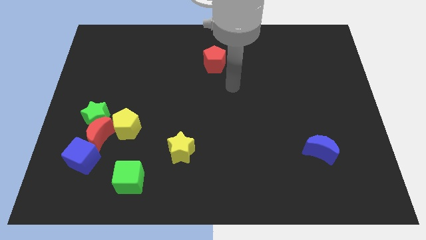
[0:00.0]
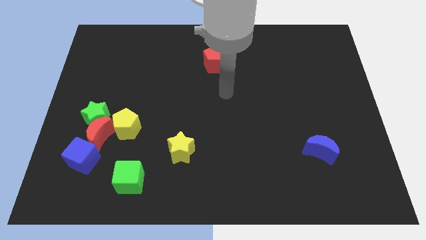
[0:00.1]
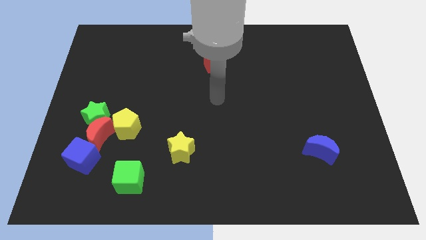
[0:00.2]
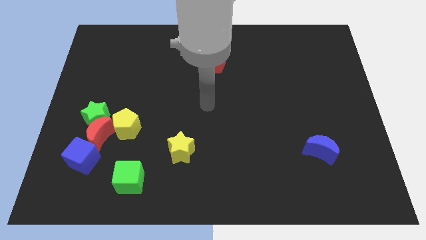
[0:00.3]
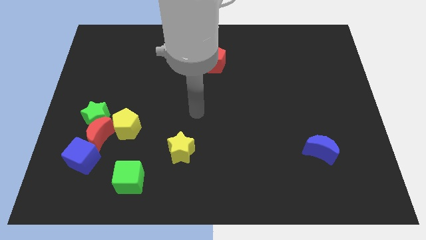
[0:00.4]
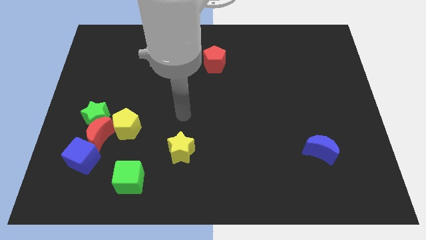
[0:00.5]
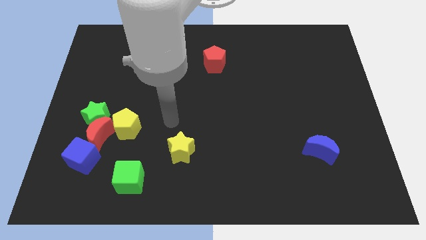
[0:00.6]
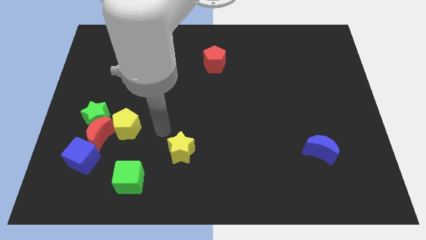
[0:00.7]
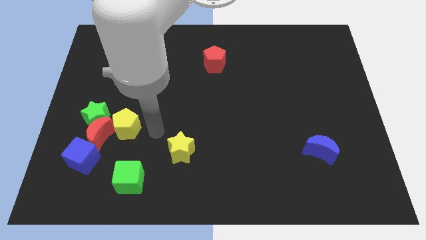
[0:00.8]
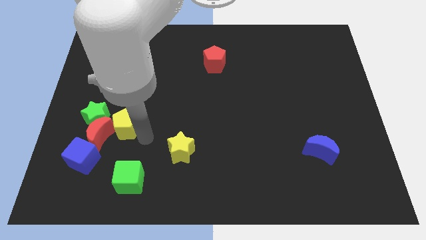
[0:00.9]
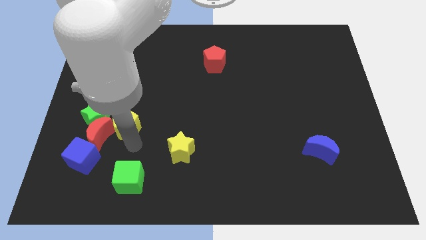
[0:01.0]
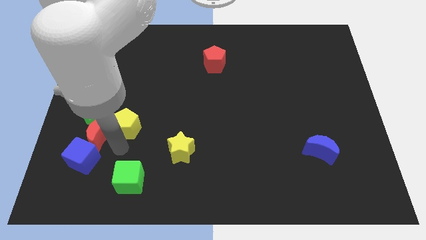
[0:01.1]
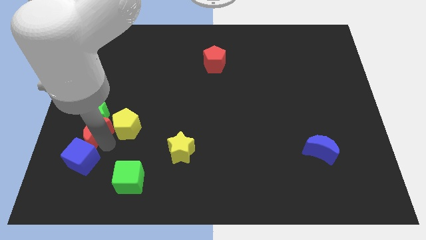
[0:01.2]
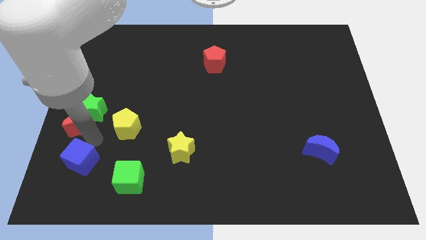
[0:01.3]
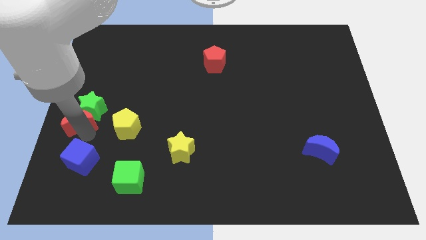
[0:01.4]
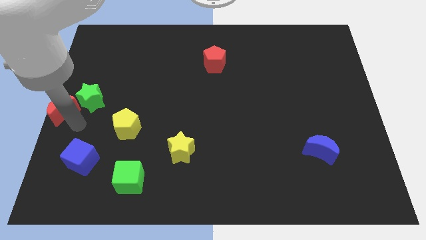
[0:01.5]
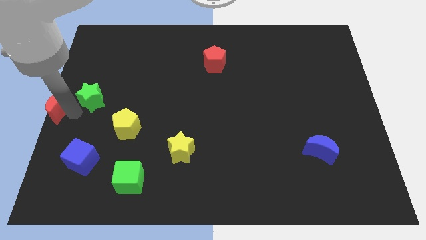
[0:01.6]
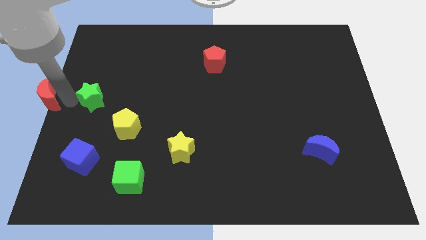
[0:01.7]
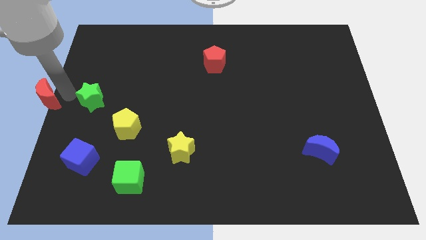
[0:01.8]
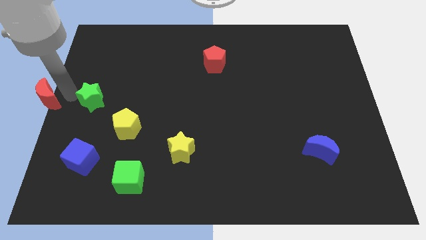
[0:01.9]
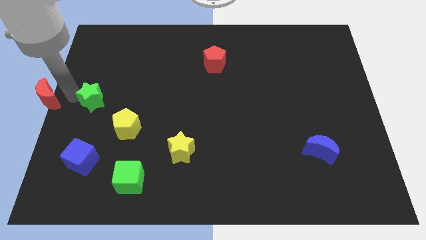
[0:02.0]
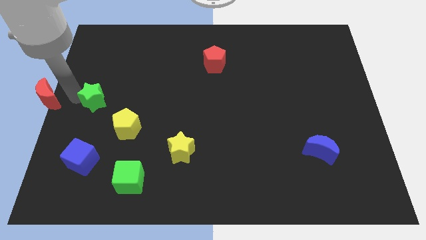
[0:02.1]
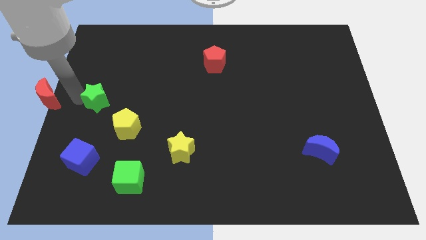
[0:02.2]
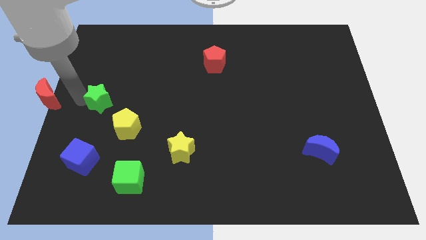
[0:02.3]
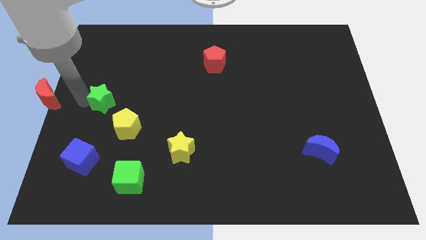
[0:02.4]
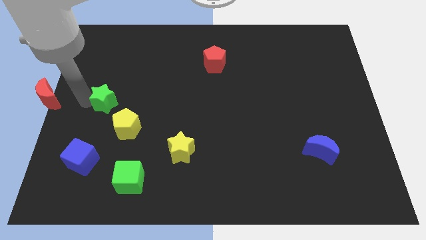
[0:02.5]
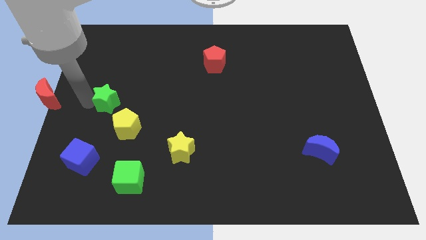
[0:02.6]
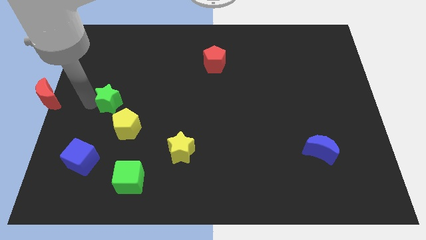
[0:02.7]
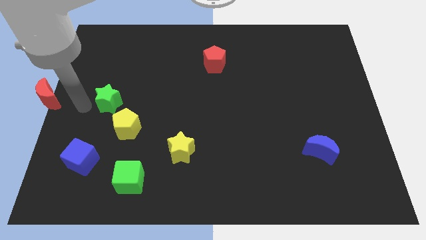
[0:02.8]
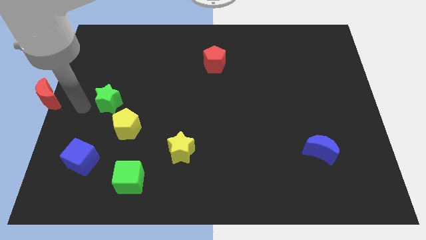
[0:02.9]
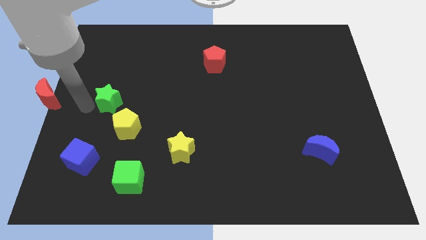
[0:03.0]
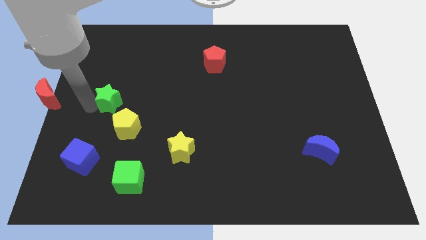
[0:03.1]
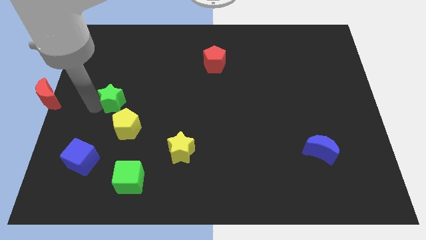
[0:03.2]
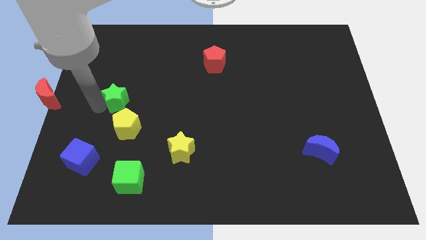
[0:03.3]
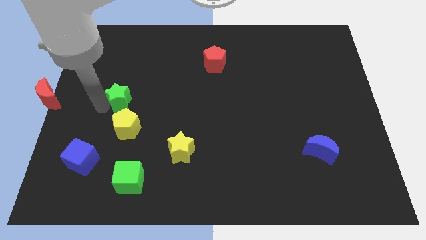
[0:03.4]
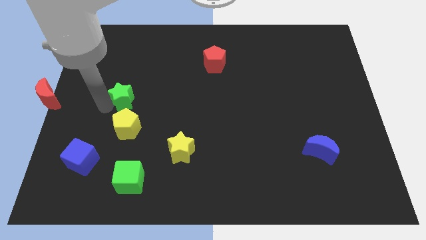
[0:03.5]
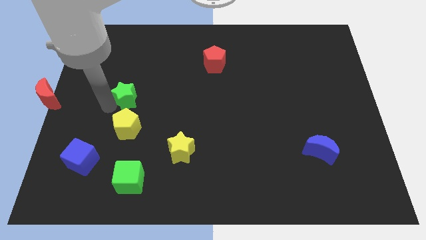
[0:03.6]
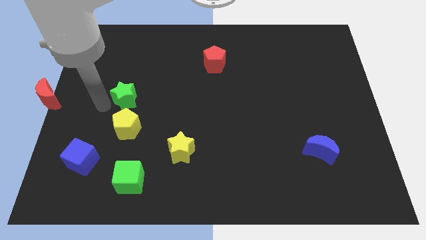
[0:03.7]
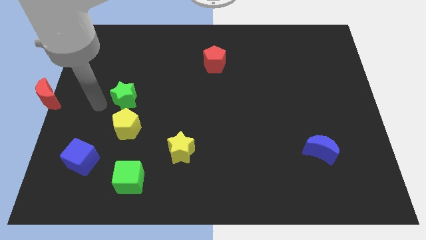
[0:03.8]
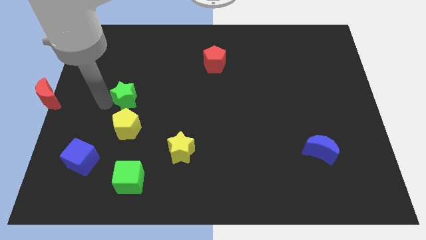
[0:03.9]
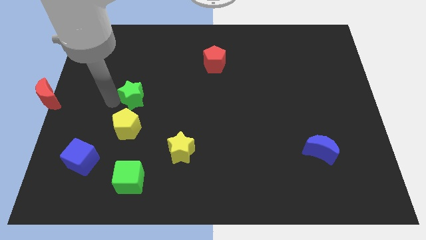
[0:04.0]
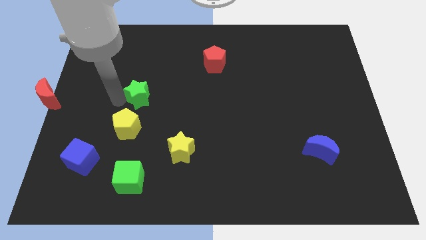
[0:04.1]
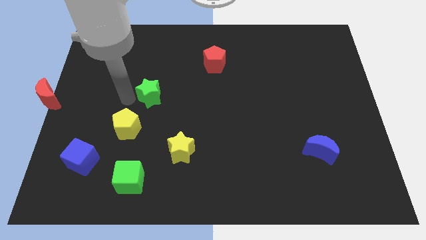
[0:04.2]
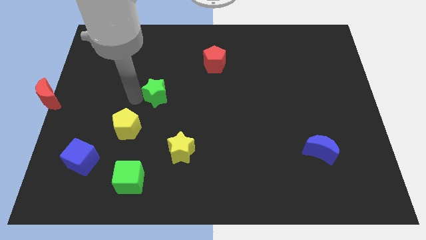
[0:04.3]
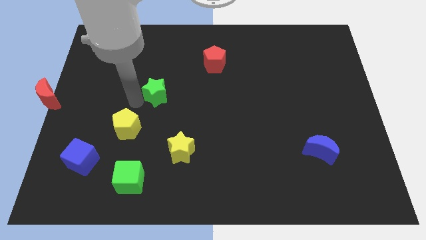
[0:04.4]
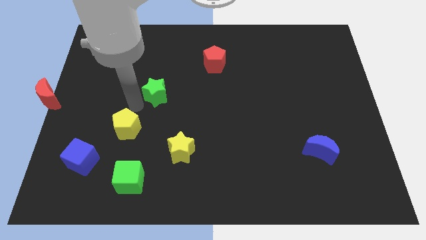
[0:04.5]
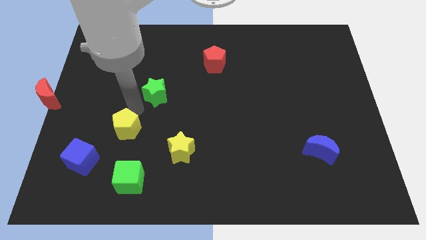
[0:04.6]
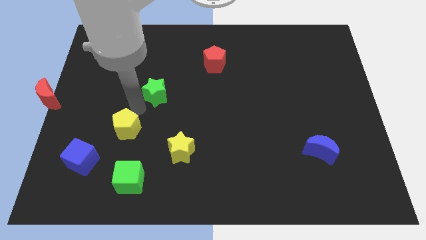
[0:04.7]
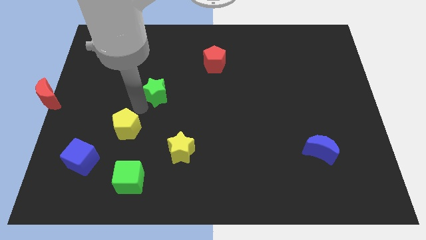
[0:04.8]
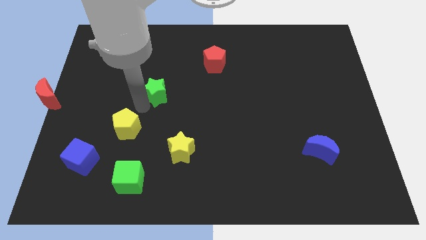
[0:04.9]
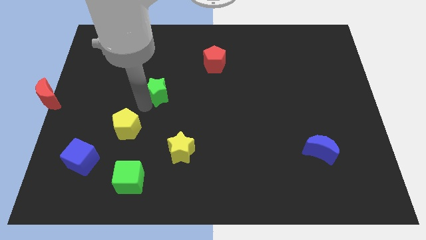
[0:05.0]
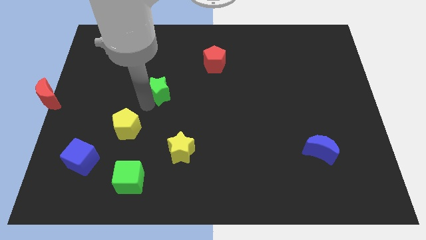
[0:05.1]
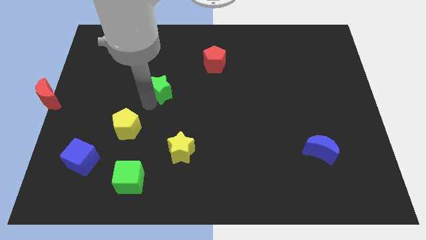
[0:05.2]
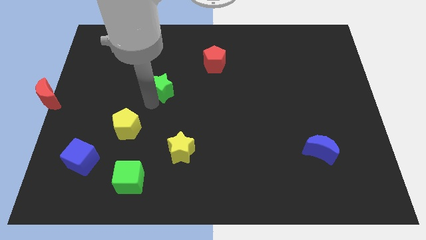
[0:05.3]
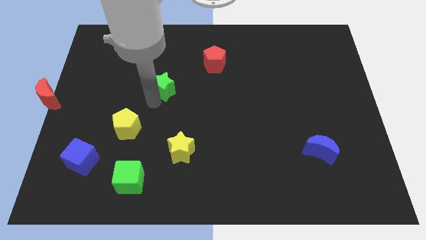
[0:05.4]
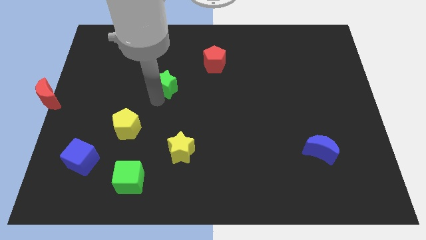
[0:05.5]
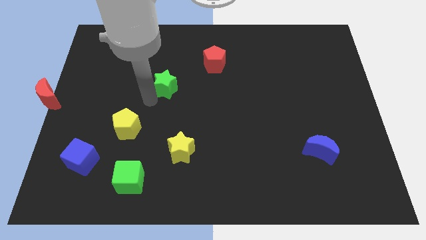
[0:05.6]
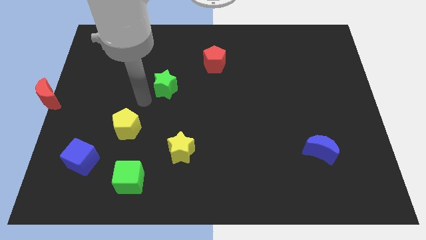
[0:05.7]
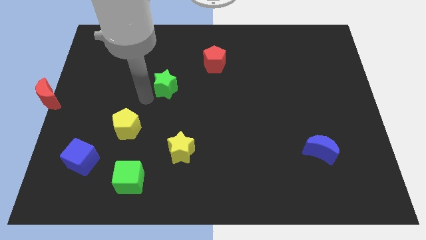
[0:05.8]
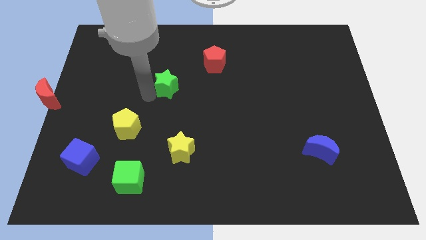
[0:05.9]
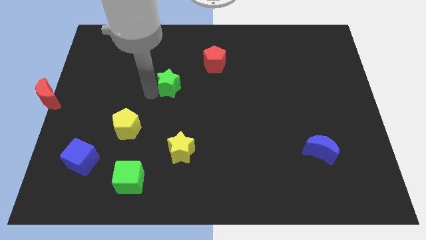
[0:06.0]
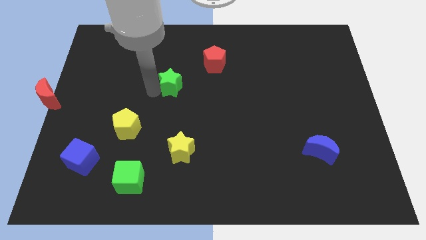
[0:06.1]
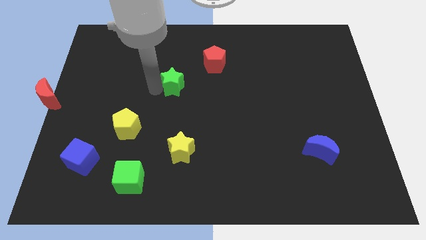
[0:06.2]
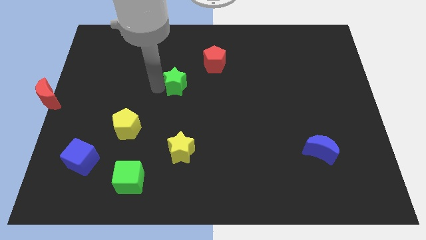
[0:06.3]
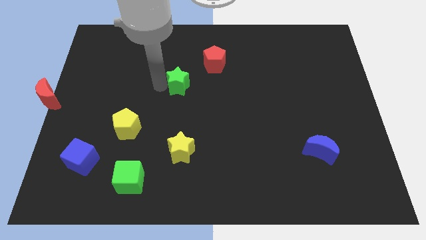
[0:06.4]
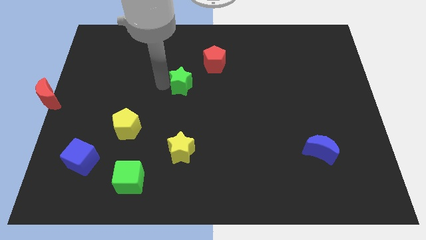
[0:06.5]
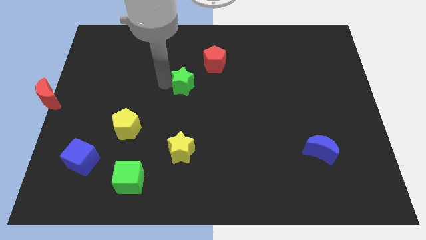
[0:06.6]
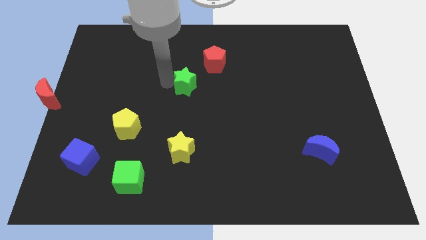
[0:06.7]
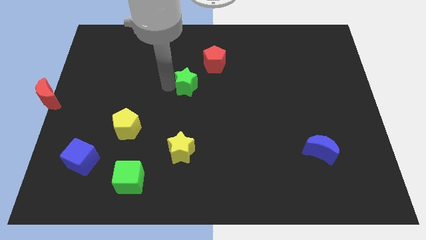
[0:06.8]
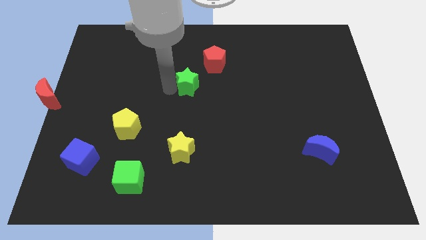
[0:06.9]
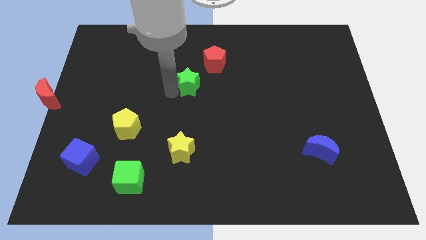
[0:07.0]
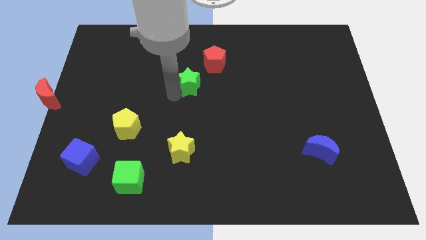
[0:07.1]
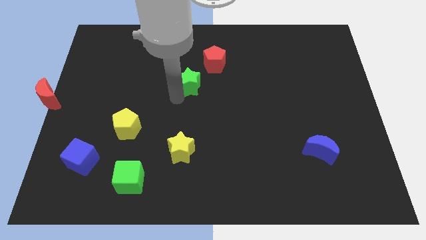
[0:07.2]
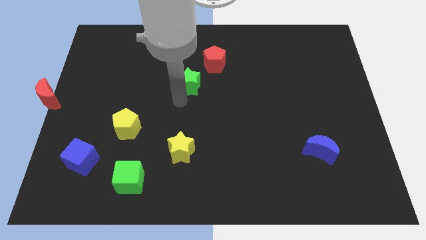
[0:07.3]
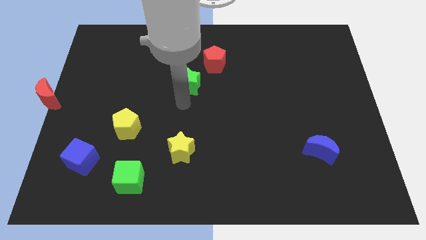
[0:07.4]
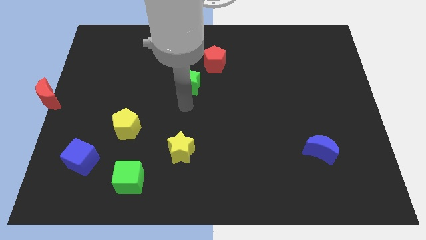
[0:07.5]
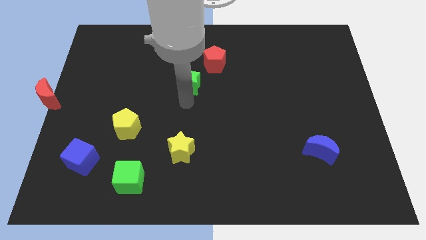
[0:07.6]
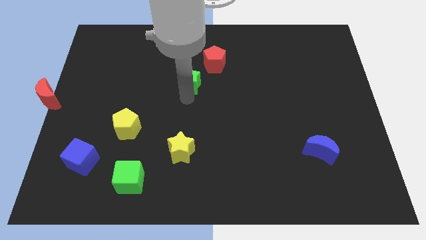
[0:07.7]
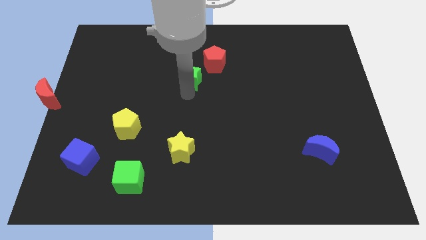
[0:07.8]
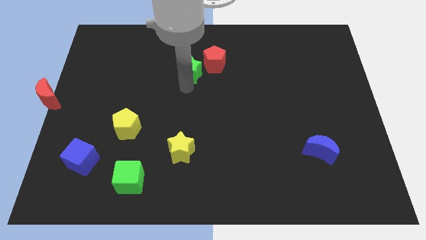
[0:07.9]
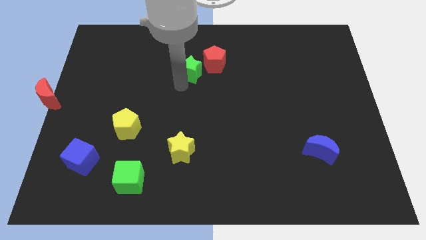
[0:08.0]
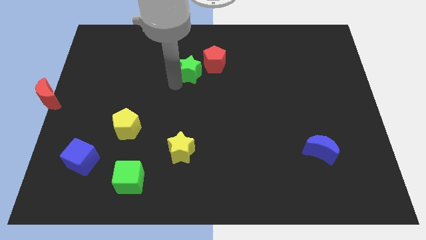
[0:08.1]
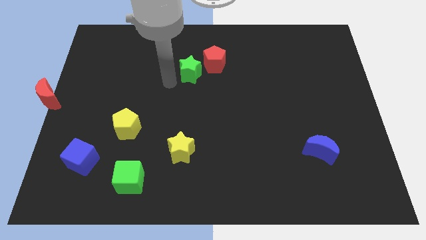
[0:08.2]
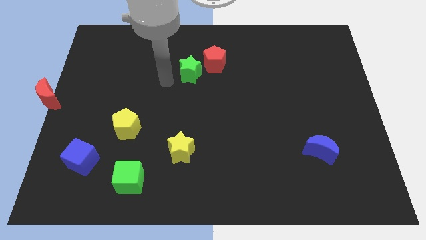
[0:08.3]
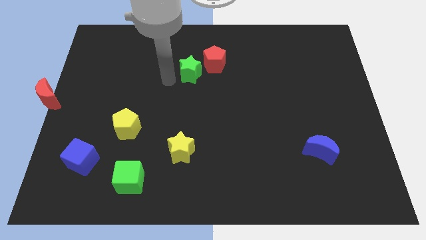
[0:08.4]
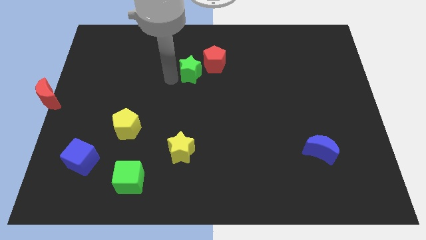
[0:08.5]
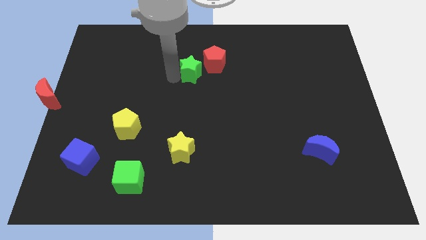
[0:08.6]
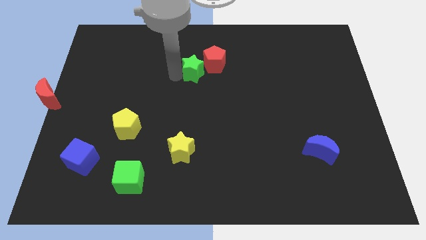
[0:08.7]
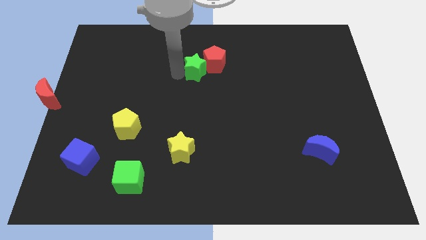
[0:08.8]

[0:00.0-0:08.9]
put the green star towards the red pentagon
